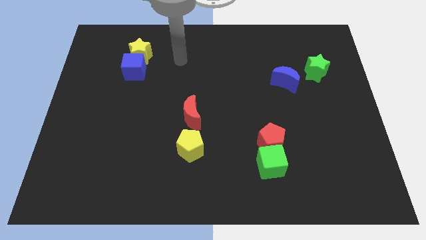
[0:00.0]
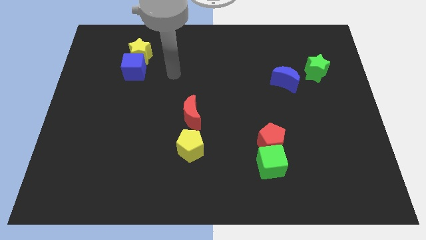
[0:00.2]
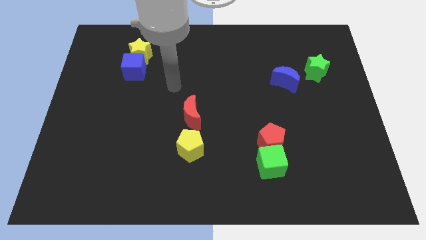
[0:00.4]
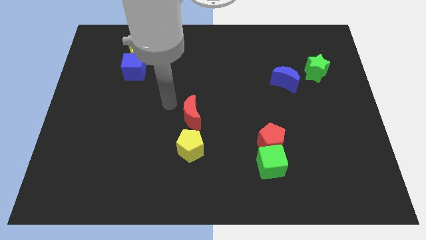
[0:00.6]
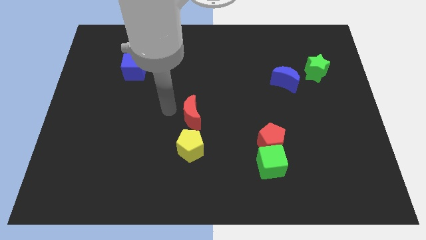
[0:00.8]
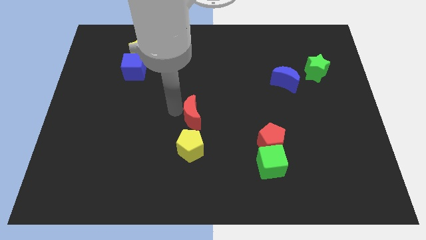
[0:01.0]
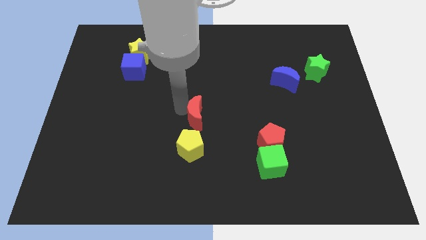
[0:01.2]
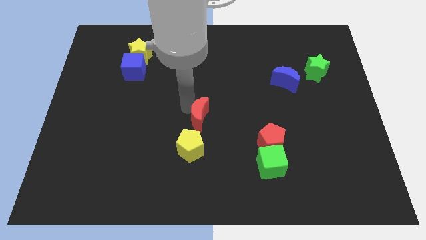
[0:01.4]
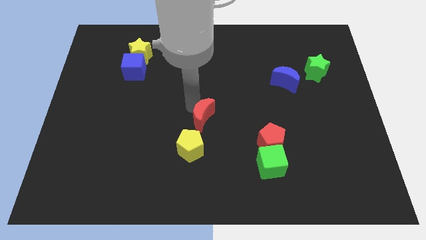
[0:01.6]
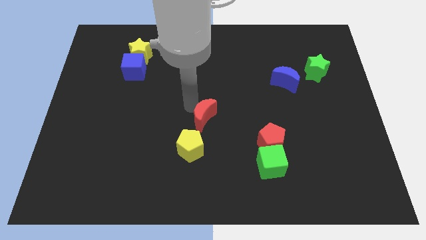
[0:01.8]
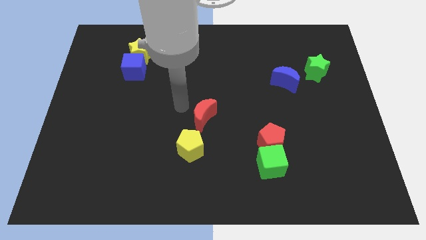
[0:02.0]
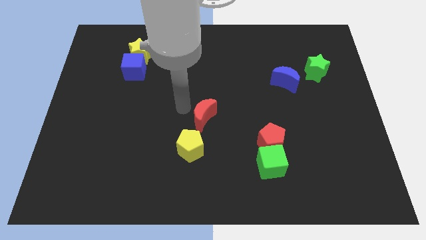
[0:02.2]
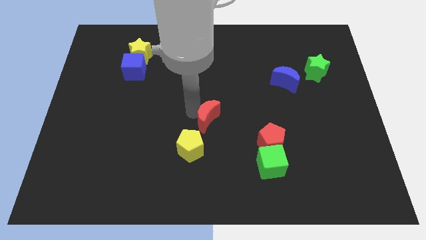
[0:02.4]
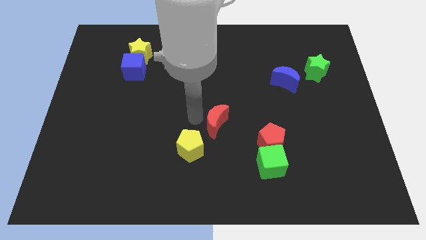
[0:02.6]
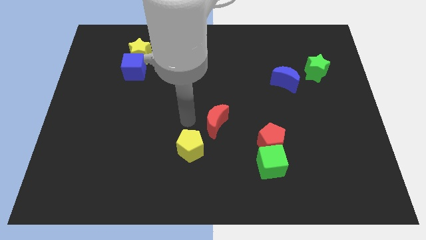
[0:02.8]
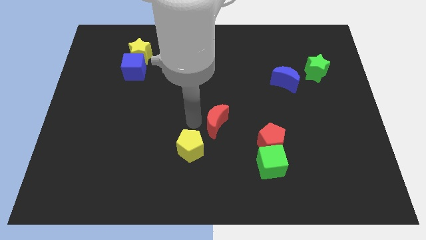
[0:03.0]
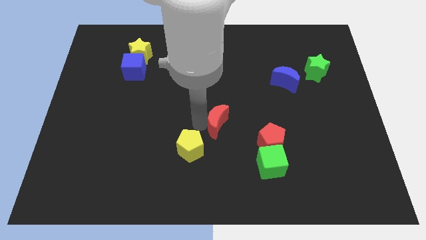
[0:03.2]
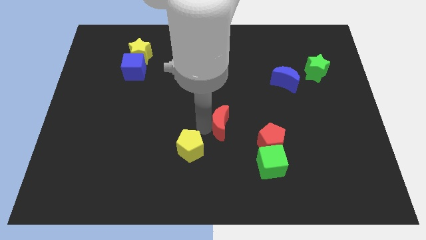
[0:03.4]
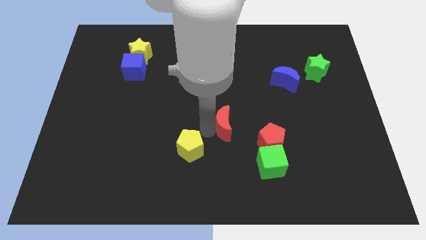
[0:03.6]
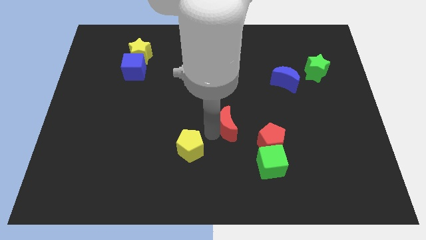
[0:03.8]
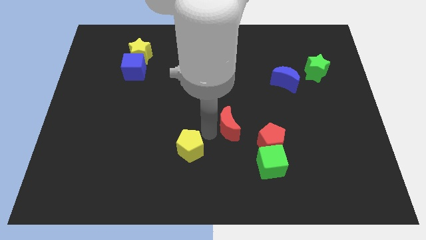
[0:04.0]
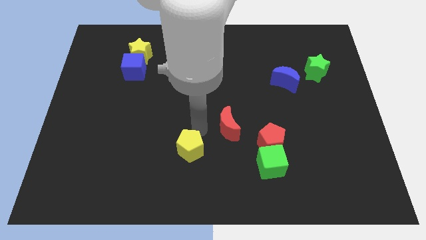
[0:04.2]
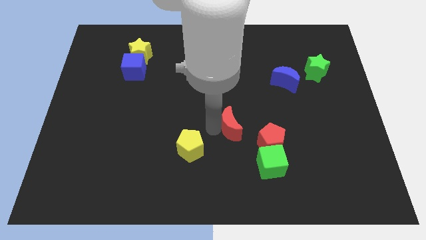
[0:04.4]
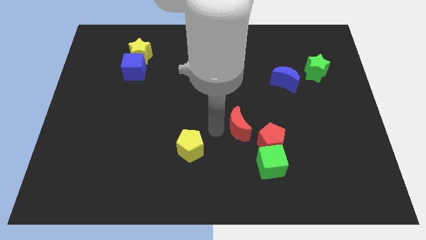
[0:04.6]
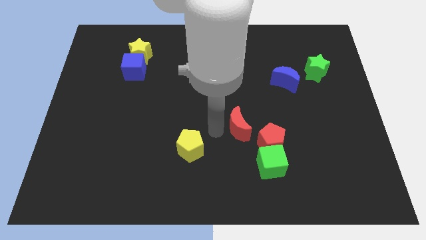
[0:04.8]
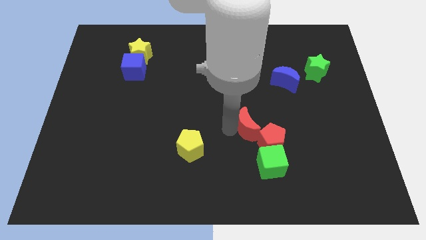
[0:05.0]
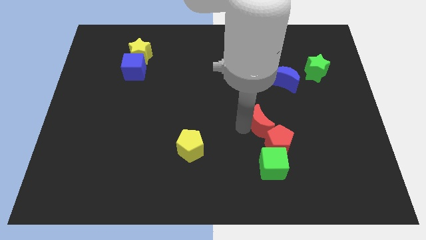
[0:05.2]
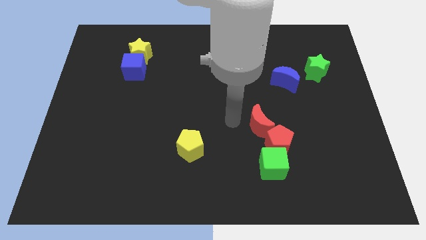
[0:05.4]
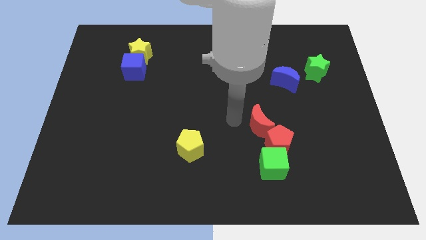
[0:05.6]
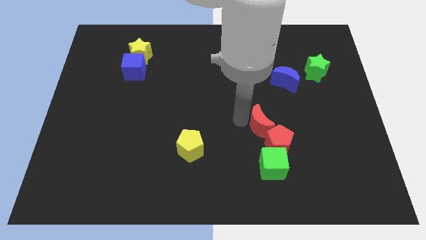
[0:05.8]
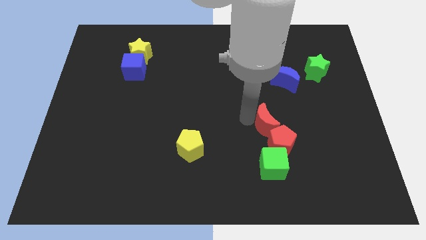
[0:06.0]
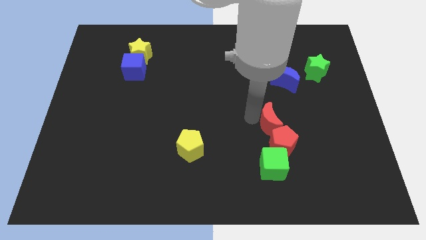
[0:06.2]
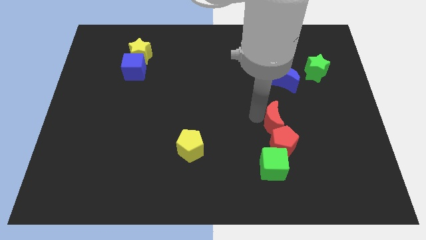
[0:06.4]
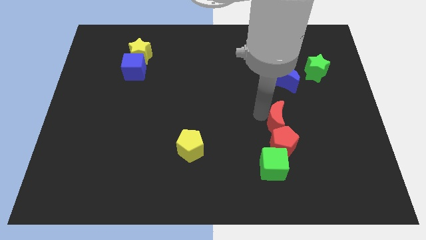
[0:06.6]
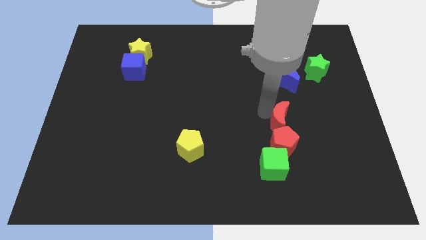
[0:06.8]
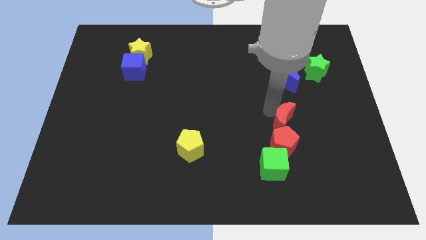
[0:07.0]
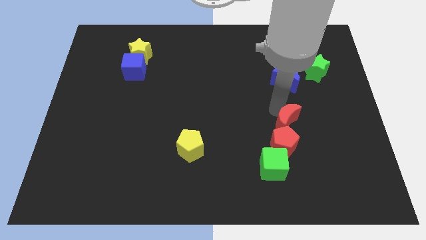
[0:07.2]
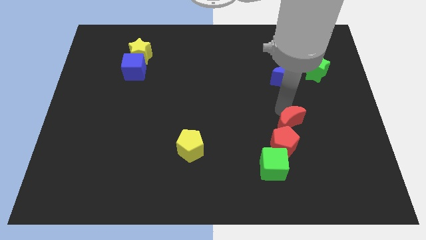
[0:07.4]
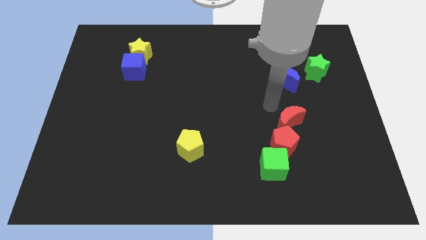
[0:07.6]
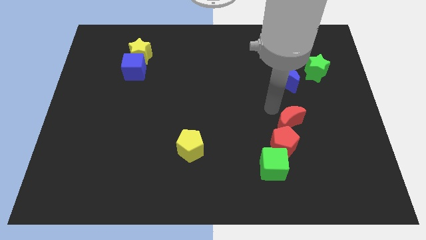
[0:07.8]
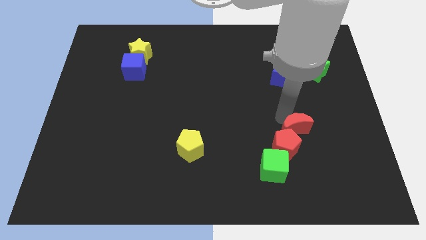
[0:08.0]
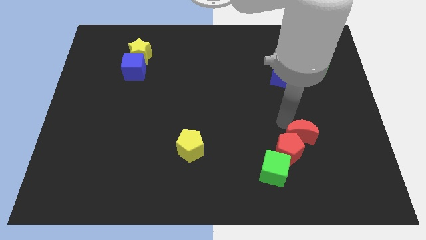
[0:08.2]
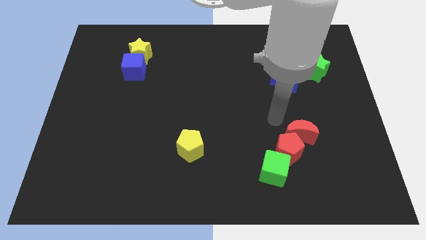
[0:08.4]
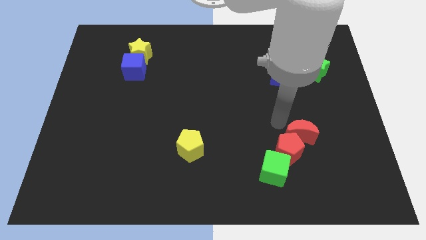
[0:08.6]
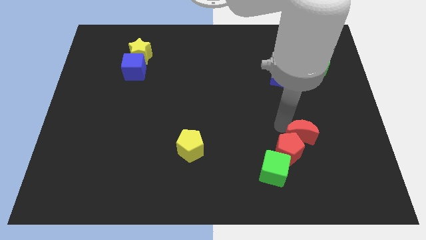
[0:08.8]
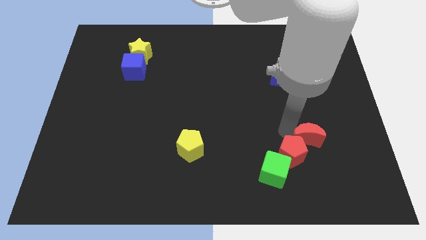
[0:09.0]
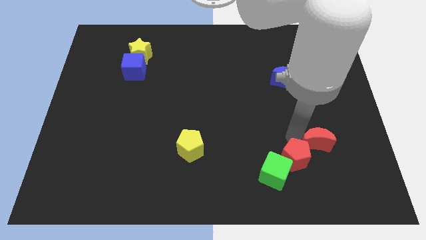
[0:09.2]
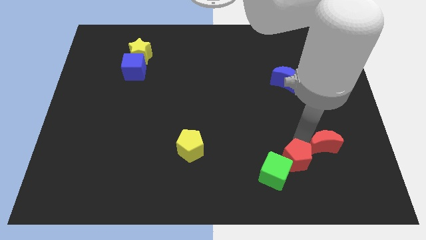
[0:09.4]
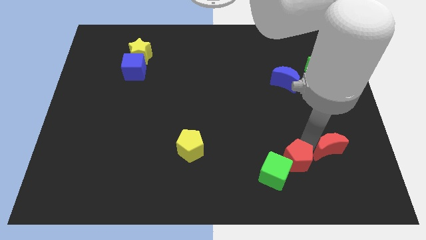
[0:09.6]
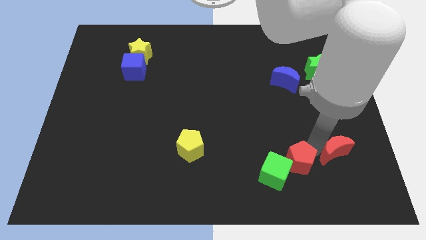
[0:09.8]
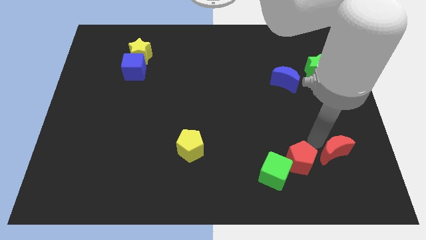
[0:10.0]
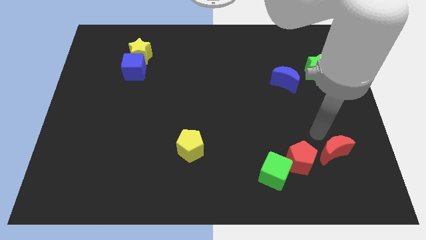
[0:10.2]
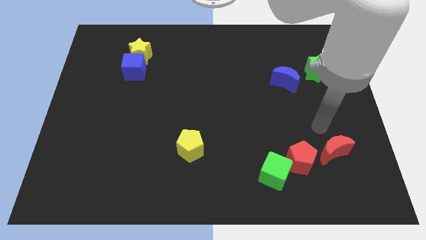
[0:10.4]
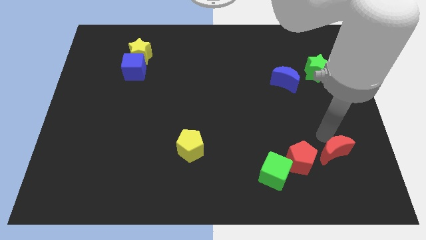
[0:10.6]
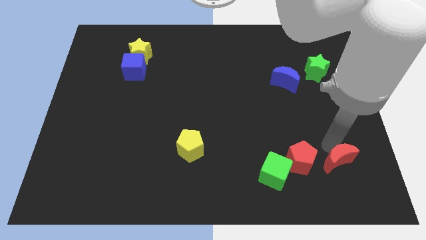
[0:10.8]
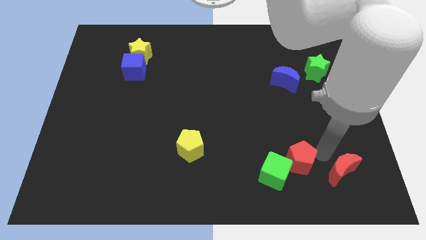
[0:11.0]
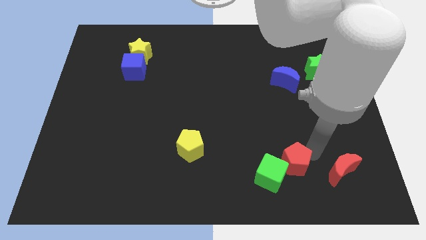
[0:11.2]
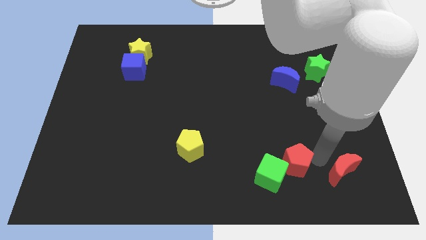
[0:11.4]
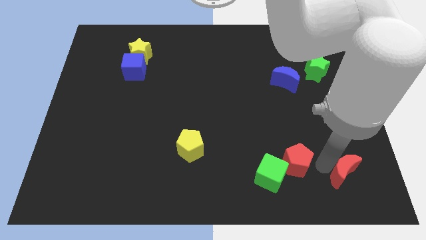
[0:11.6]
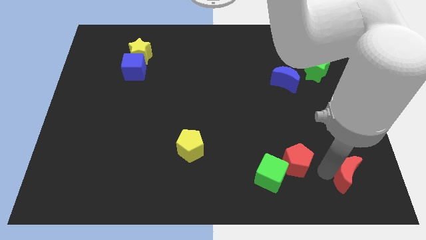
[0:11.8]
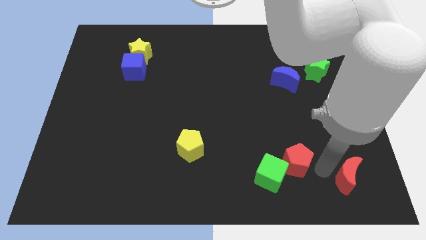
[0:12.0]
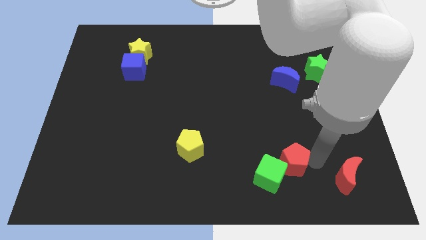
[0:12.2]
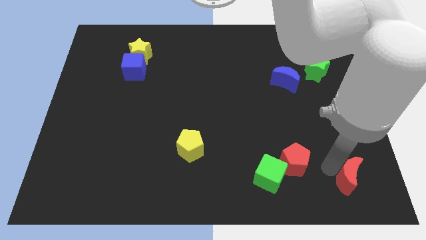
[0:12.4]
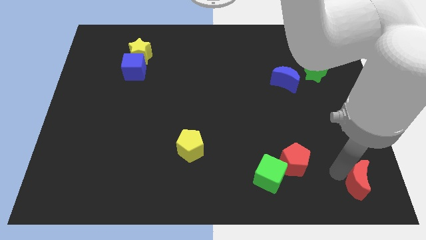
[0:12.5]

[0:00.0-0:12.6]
move the red moon to the lower right corner

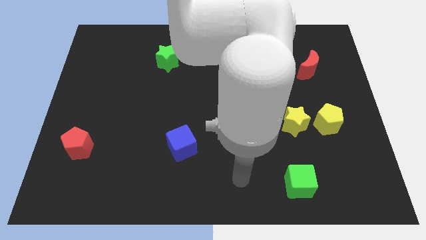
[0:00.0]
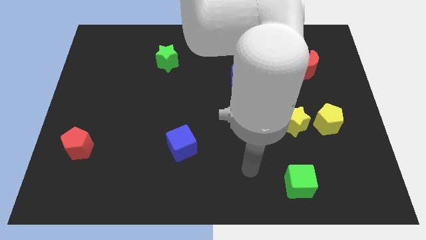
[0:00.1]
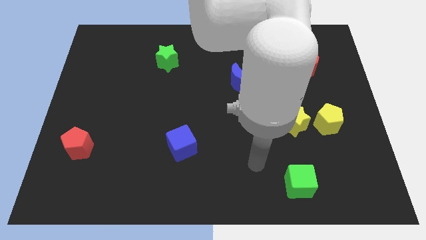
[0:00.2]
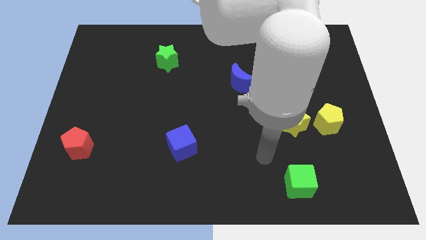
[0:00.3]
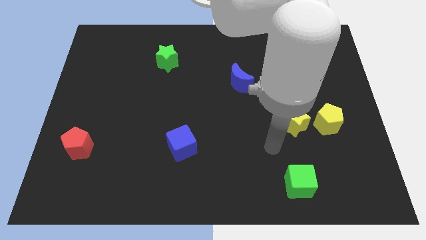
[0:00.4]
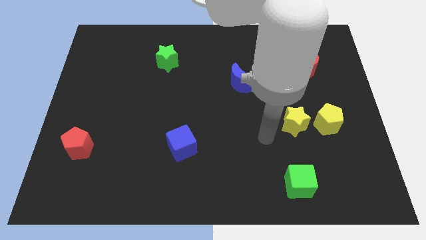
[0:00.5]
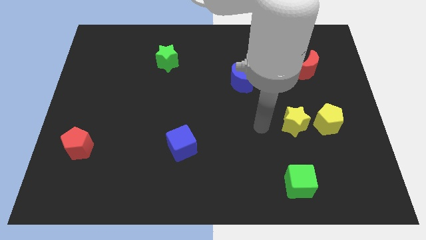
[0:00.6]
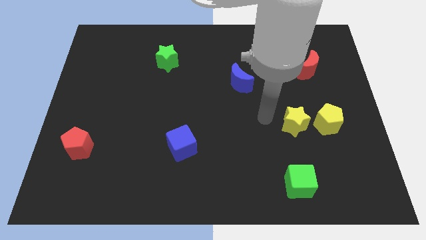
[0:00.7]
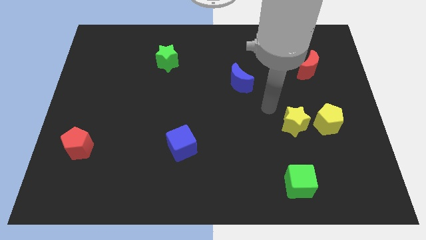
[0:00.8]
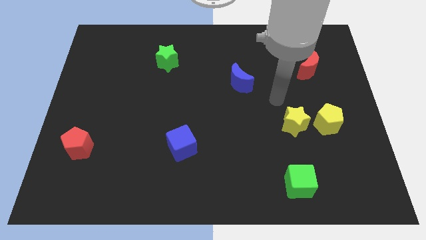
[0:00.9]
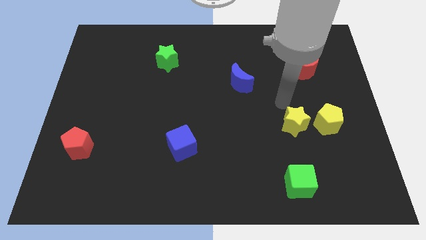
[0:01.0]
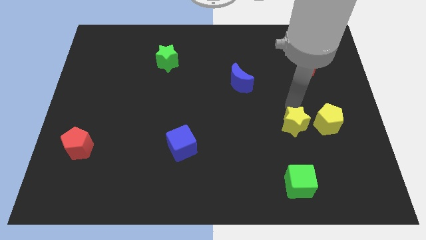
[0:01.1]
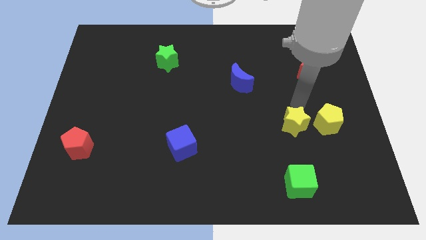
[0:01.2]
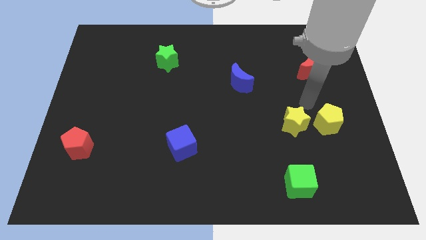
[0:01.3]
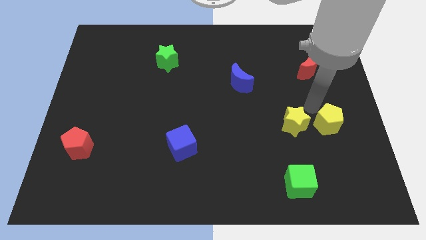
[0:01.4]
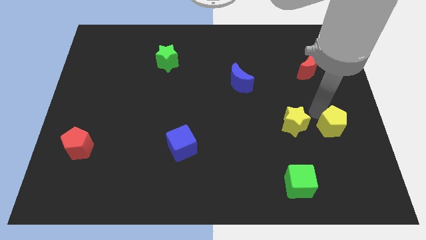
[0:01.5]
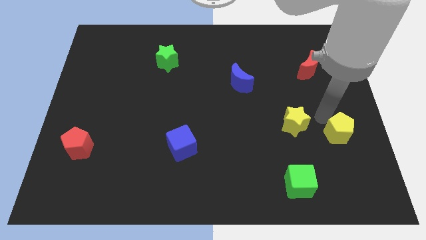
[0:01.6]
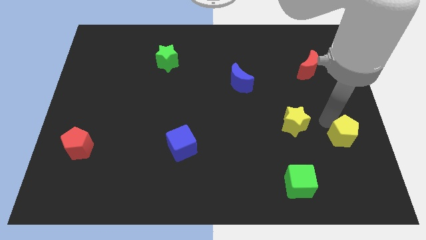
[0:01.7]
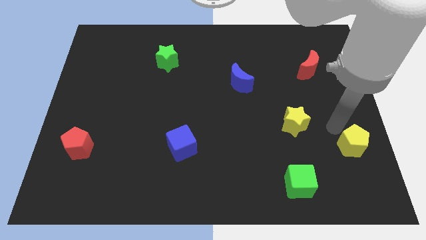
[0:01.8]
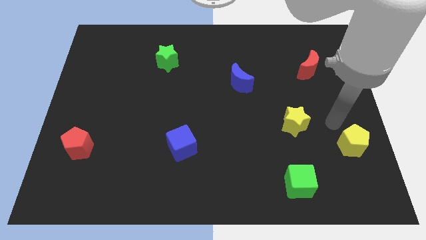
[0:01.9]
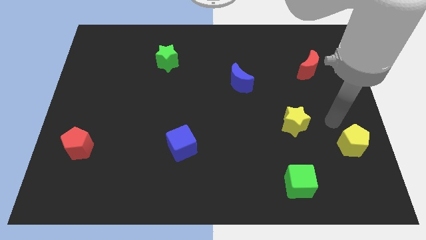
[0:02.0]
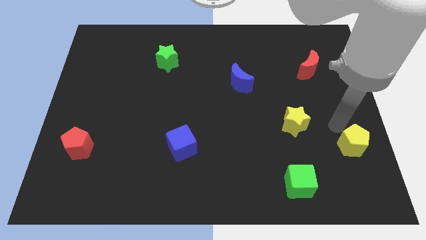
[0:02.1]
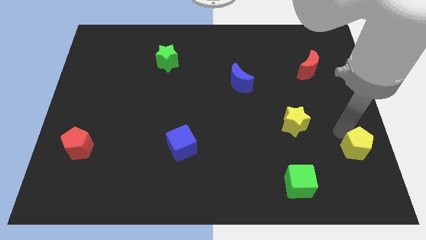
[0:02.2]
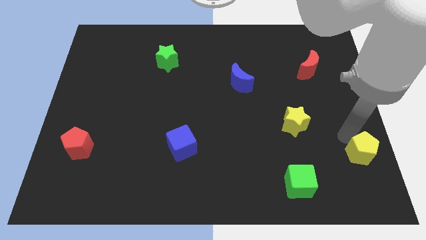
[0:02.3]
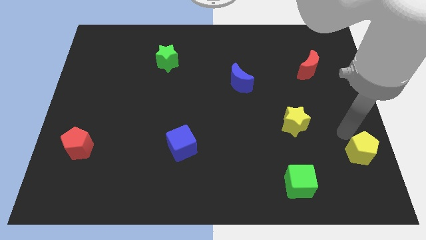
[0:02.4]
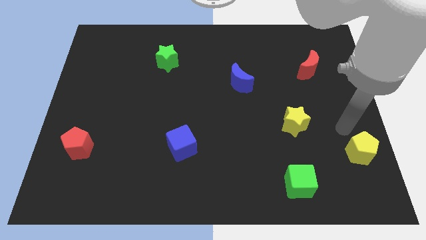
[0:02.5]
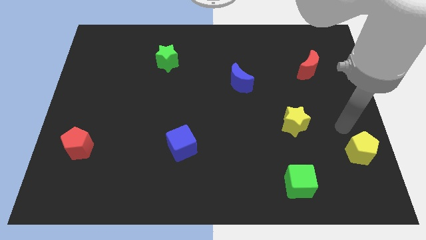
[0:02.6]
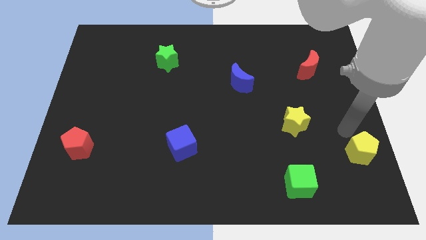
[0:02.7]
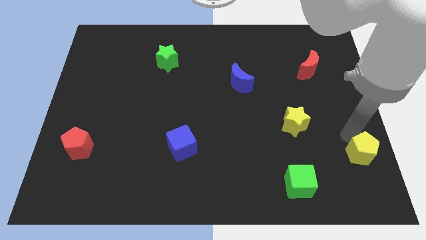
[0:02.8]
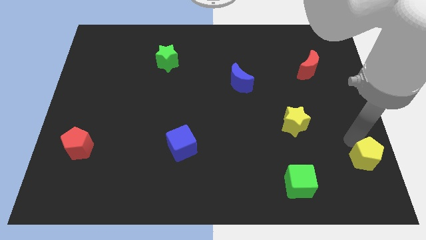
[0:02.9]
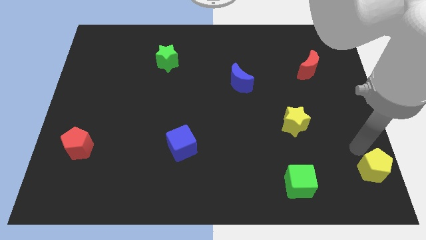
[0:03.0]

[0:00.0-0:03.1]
move the yellow pentagon to the bottom right
